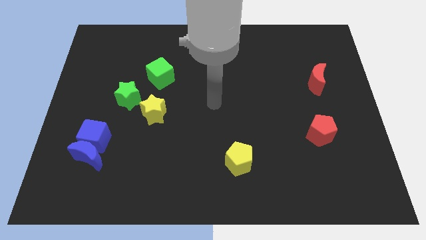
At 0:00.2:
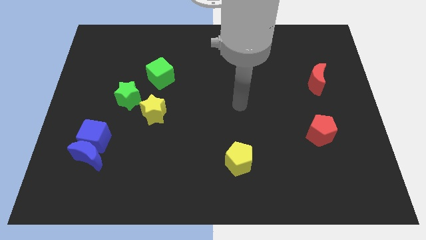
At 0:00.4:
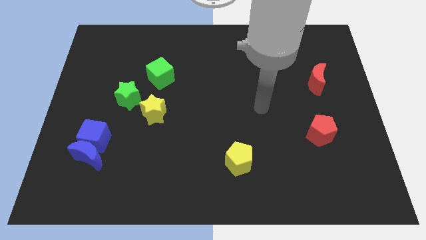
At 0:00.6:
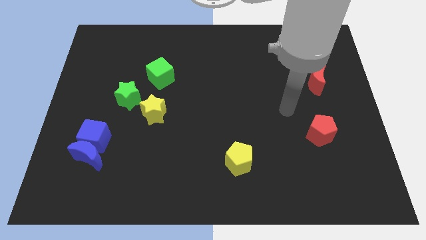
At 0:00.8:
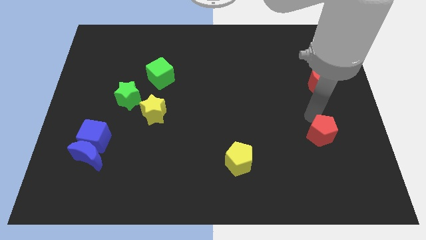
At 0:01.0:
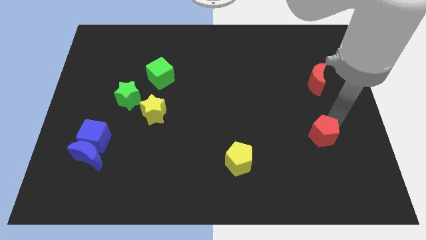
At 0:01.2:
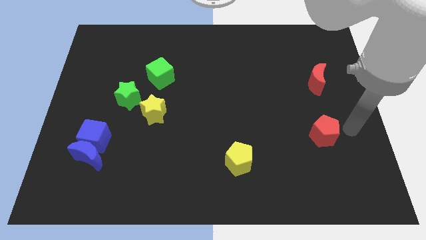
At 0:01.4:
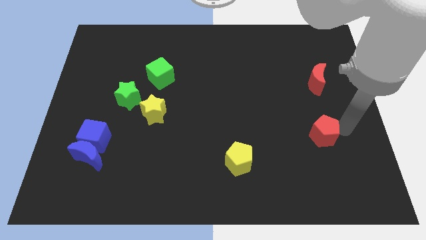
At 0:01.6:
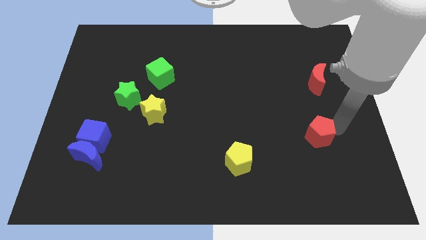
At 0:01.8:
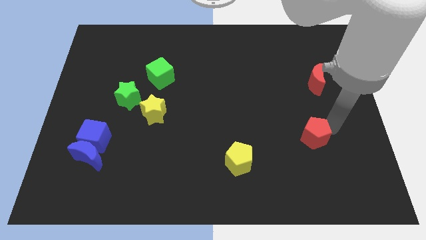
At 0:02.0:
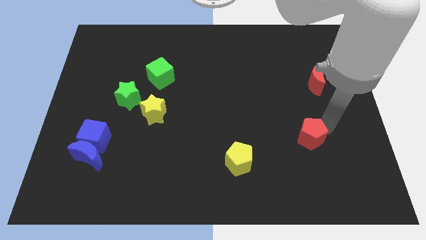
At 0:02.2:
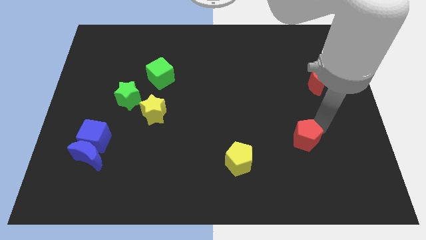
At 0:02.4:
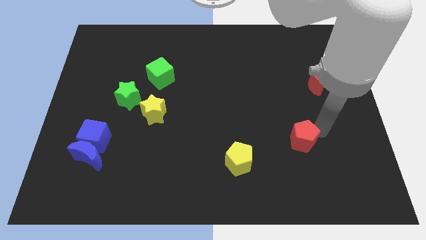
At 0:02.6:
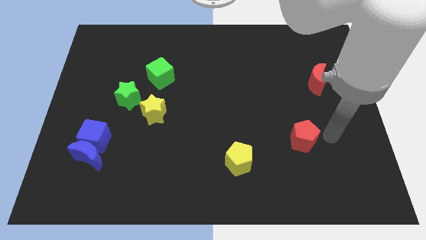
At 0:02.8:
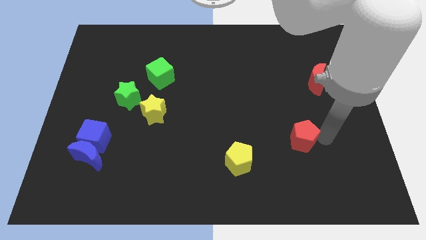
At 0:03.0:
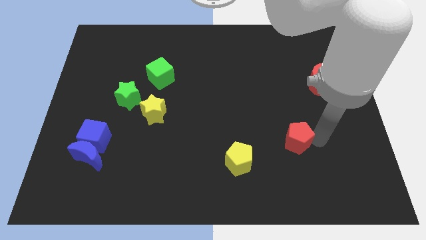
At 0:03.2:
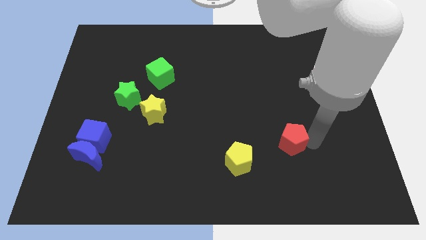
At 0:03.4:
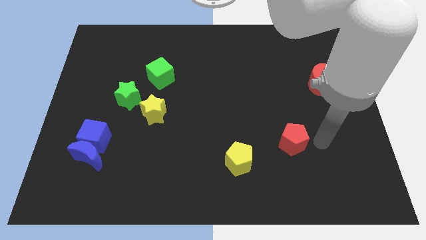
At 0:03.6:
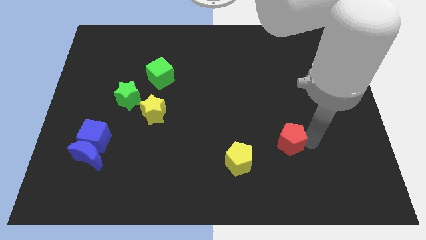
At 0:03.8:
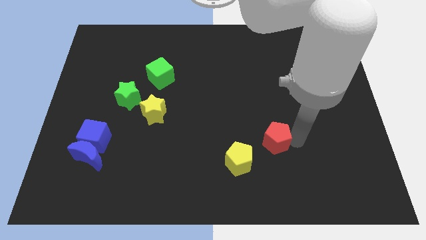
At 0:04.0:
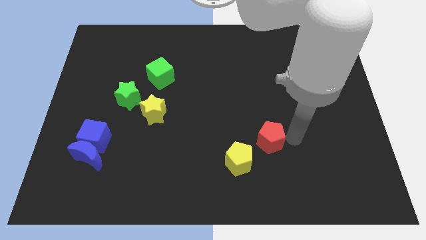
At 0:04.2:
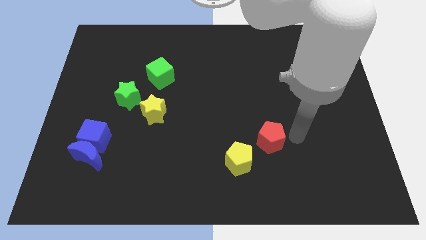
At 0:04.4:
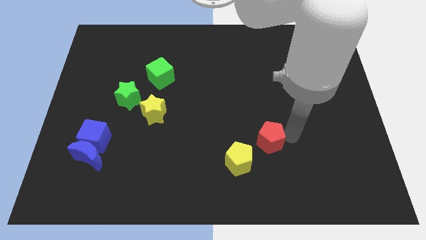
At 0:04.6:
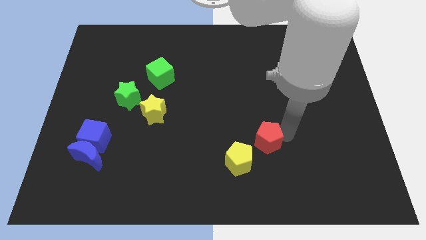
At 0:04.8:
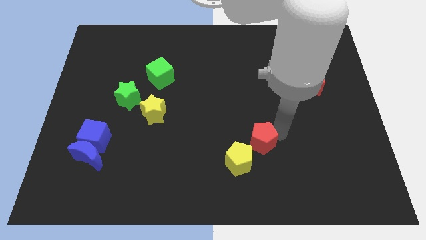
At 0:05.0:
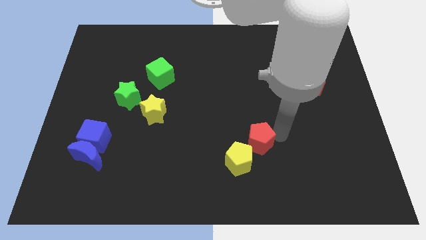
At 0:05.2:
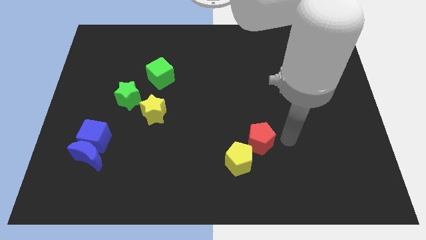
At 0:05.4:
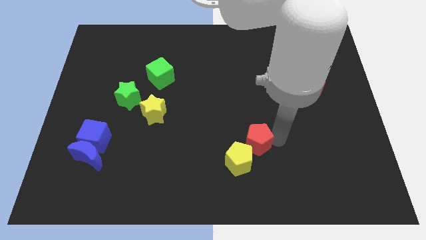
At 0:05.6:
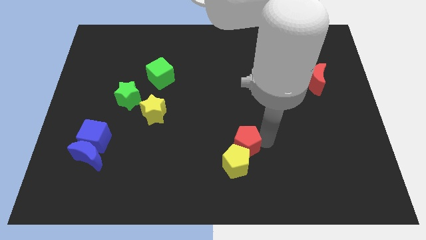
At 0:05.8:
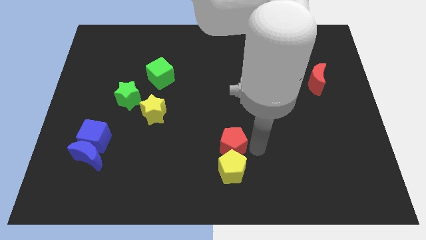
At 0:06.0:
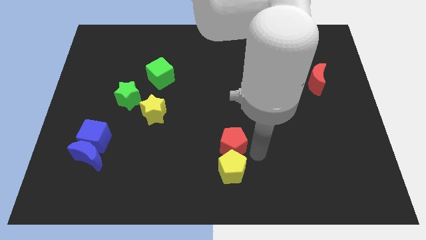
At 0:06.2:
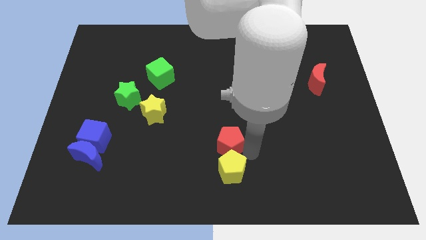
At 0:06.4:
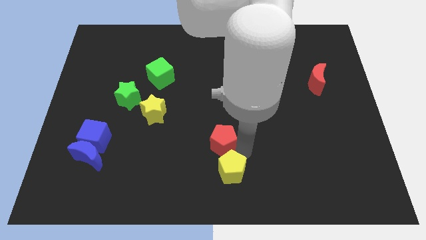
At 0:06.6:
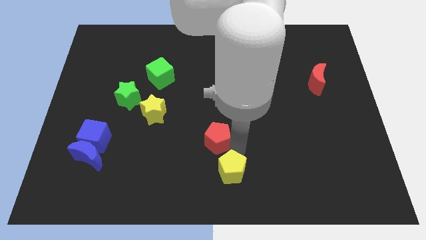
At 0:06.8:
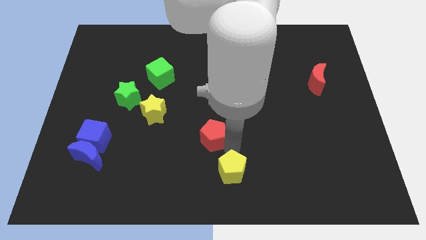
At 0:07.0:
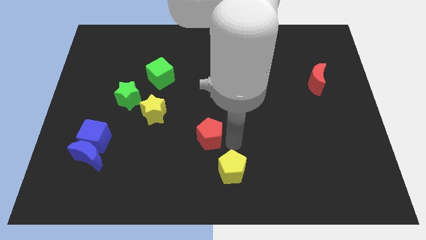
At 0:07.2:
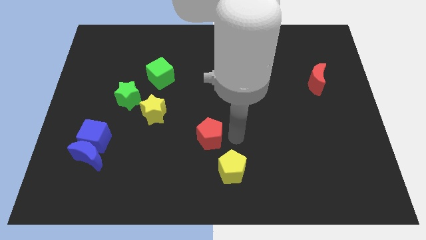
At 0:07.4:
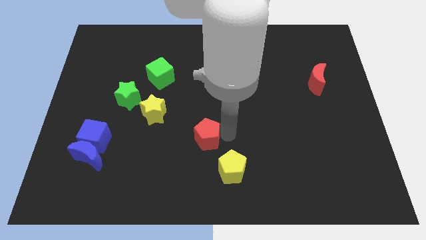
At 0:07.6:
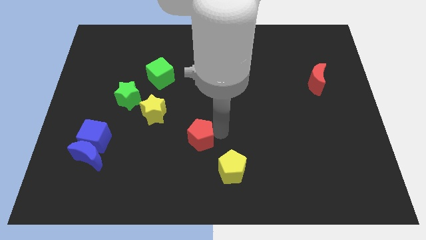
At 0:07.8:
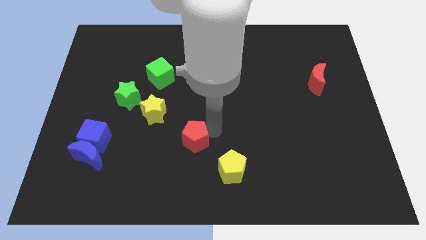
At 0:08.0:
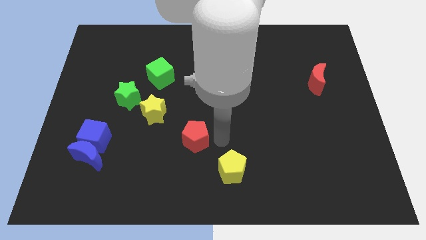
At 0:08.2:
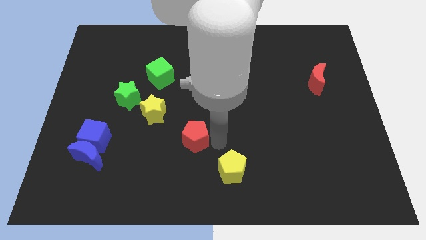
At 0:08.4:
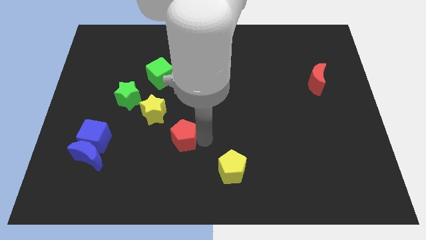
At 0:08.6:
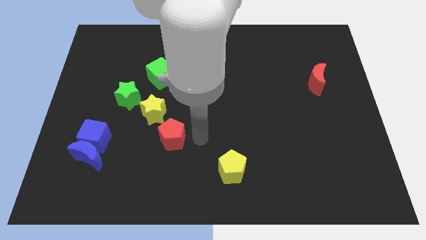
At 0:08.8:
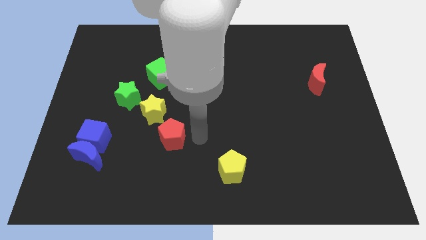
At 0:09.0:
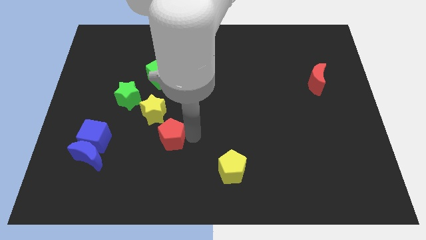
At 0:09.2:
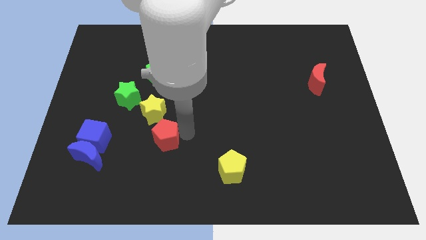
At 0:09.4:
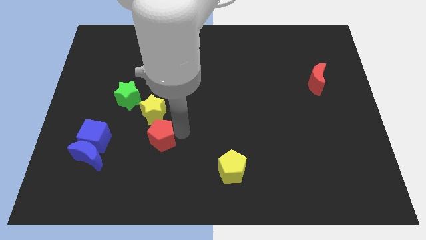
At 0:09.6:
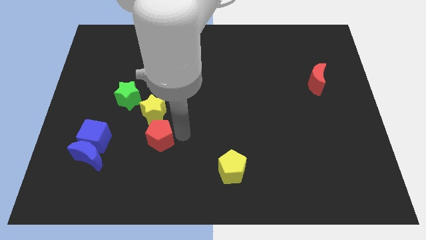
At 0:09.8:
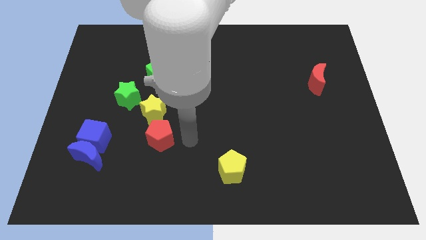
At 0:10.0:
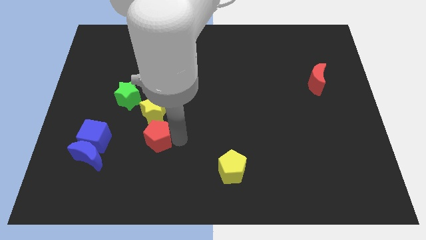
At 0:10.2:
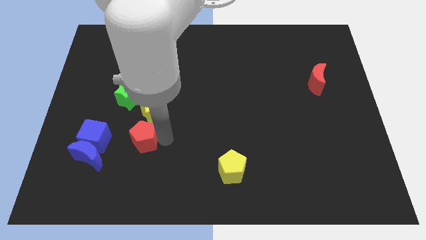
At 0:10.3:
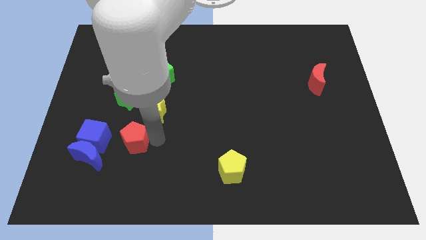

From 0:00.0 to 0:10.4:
move the red pentagon below the green star

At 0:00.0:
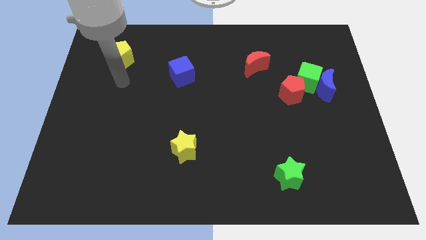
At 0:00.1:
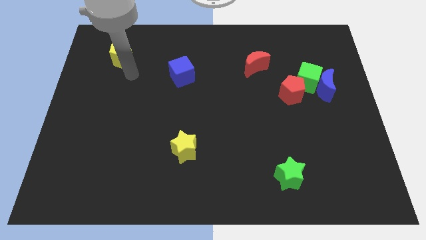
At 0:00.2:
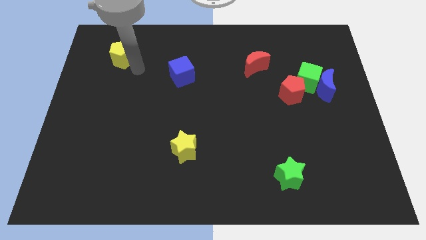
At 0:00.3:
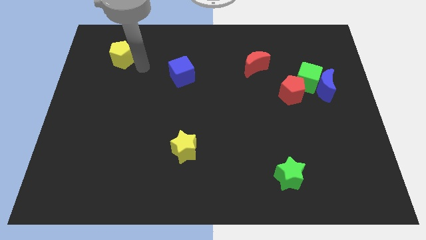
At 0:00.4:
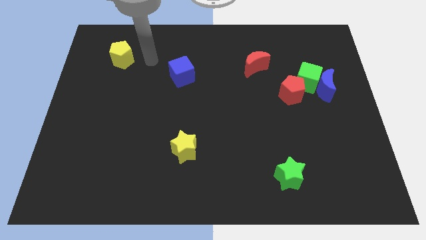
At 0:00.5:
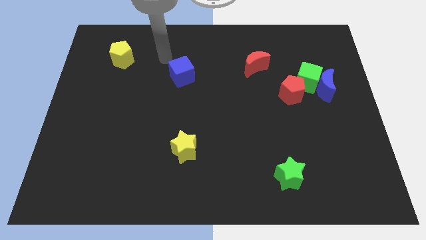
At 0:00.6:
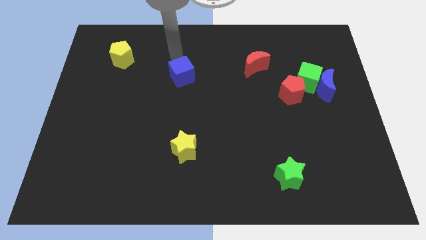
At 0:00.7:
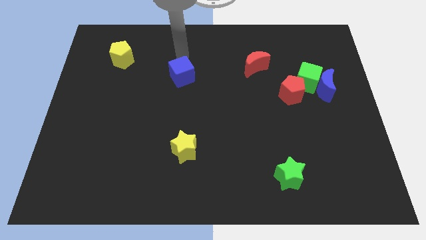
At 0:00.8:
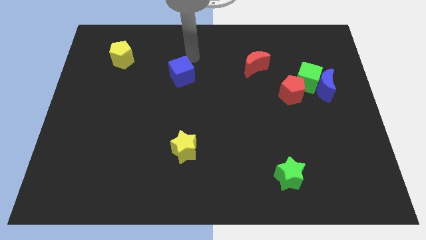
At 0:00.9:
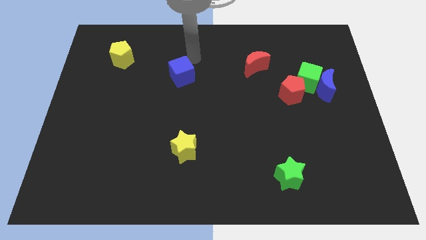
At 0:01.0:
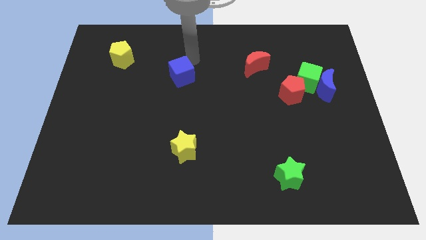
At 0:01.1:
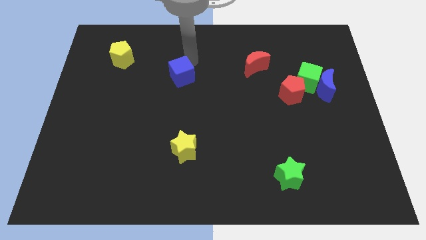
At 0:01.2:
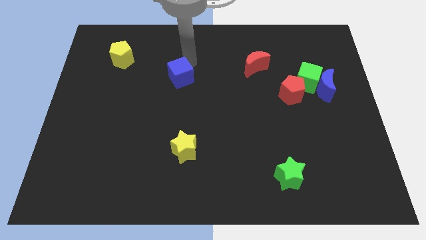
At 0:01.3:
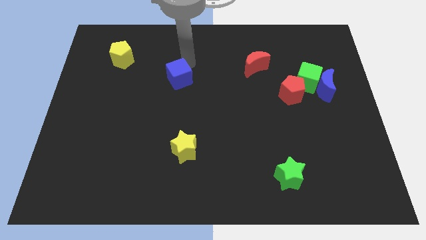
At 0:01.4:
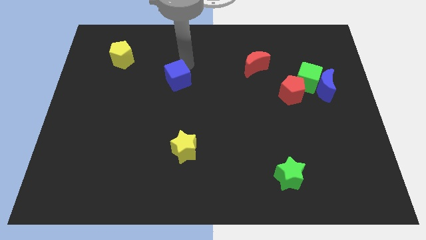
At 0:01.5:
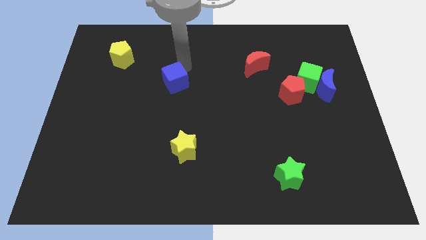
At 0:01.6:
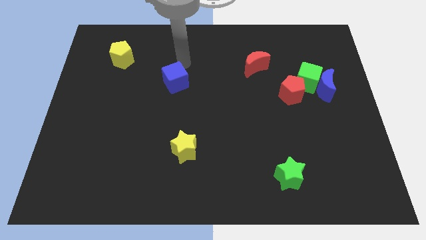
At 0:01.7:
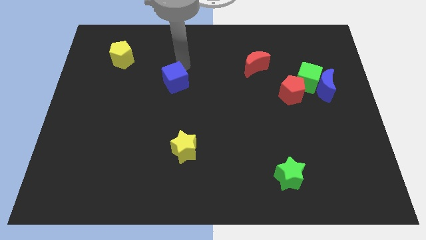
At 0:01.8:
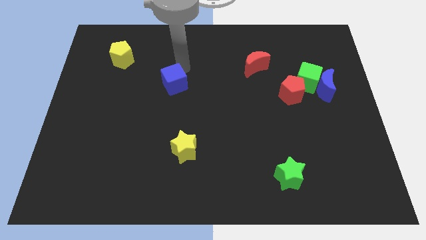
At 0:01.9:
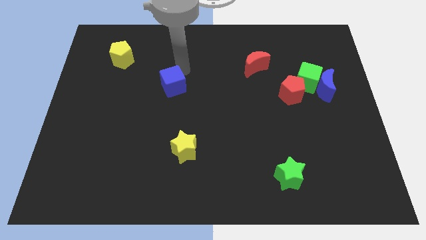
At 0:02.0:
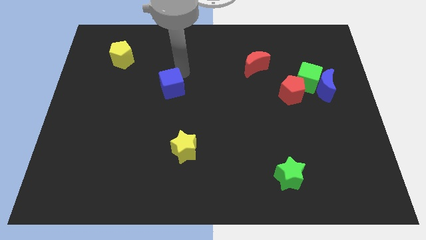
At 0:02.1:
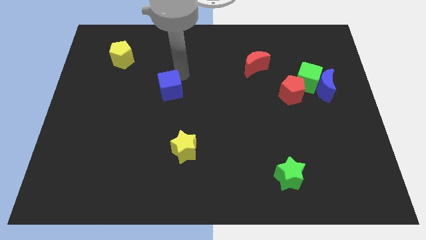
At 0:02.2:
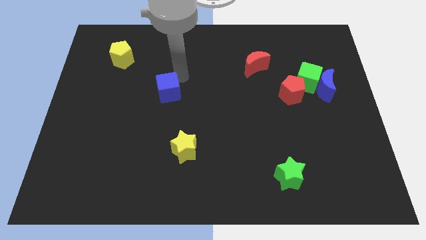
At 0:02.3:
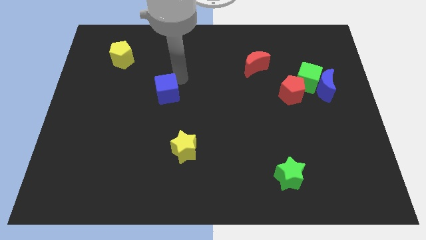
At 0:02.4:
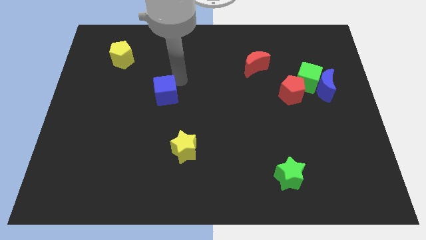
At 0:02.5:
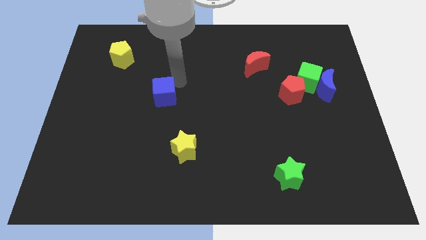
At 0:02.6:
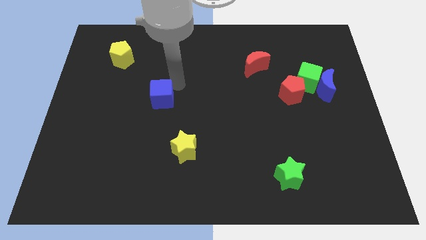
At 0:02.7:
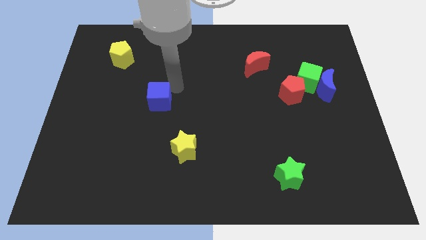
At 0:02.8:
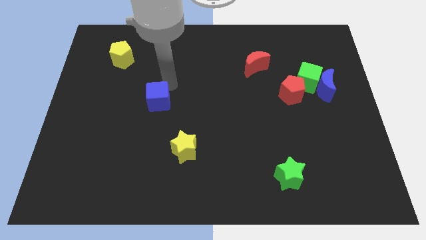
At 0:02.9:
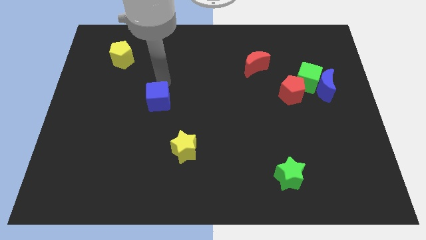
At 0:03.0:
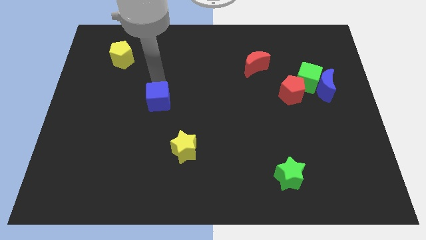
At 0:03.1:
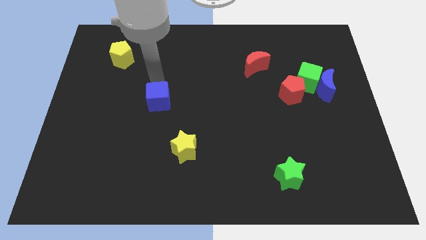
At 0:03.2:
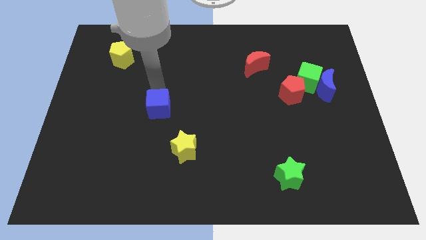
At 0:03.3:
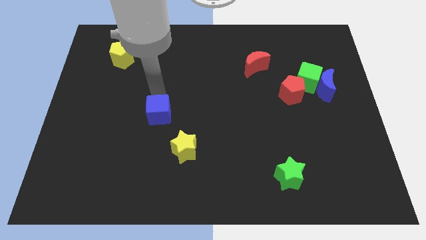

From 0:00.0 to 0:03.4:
slide the blue cube diagonally up and to the left of the yellow star
